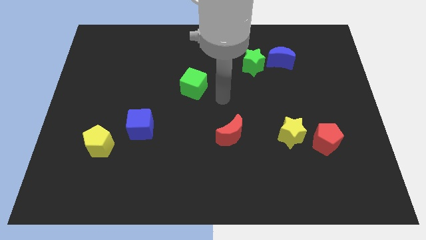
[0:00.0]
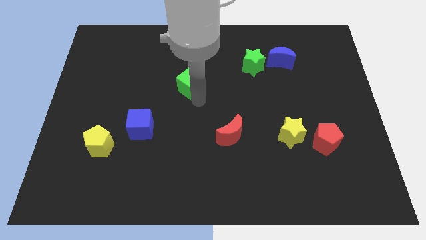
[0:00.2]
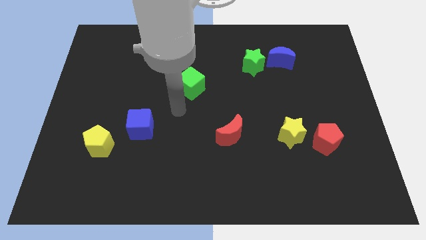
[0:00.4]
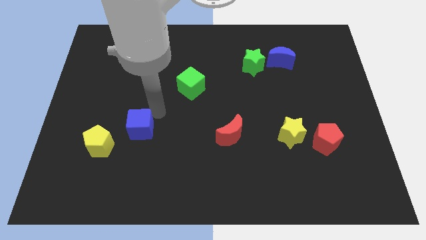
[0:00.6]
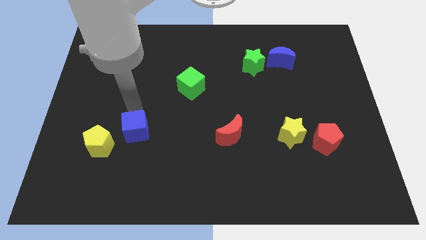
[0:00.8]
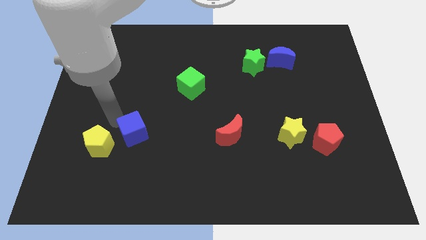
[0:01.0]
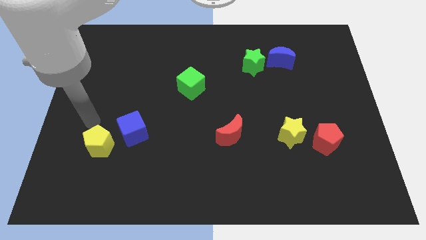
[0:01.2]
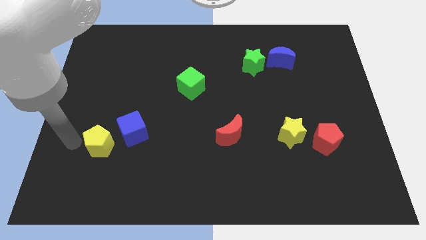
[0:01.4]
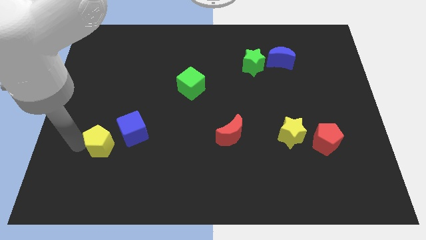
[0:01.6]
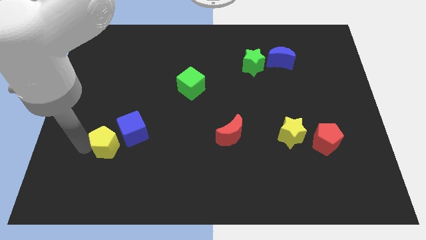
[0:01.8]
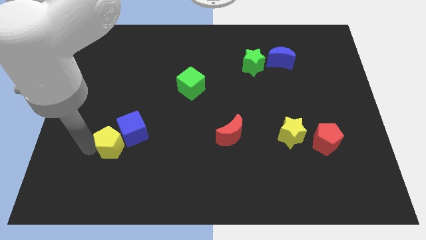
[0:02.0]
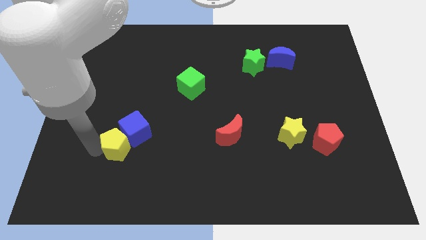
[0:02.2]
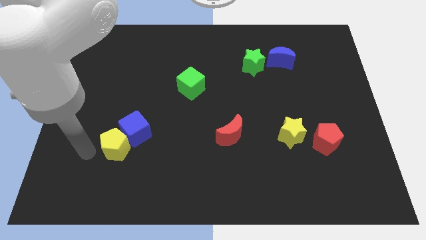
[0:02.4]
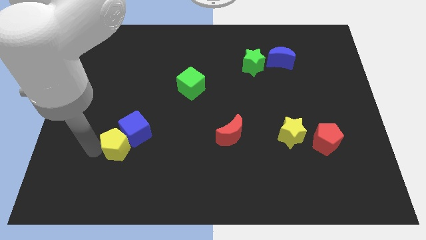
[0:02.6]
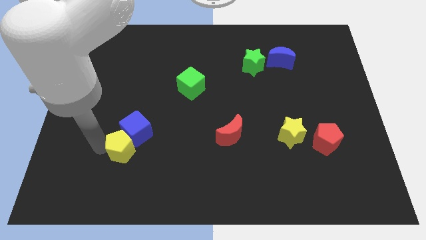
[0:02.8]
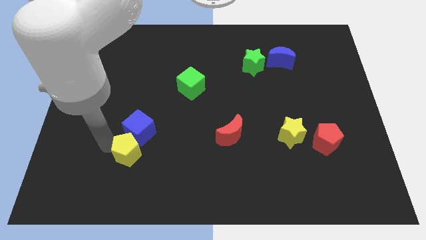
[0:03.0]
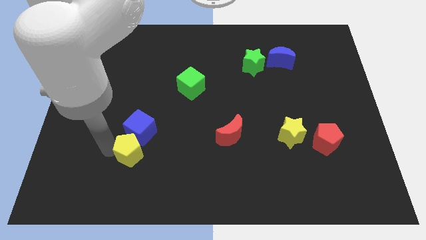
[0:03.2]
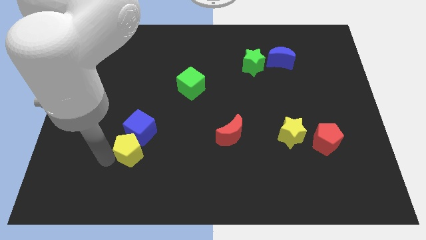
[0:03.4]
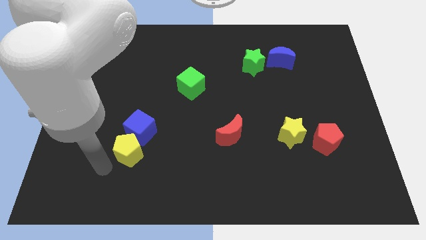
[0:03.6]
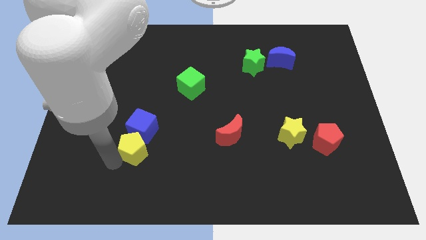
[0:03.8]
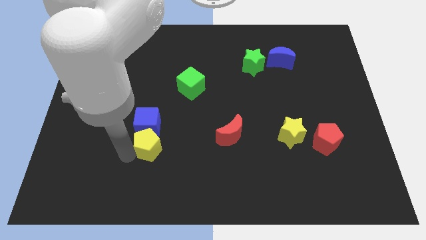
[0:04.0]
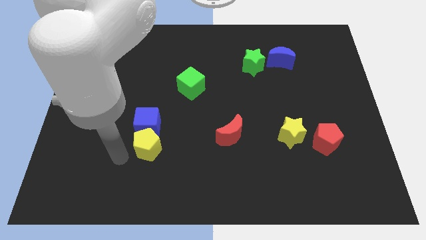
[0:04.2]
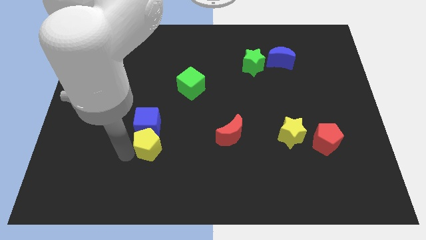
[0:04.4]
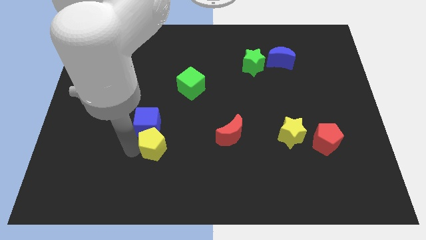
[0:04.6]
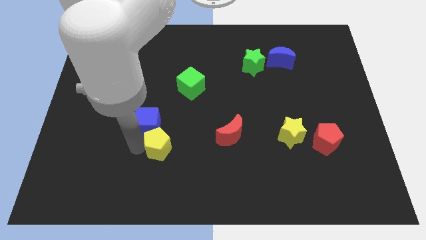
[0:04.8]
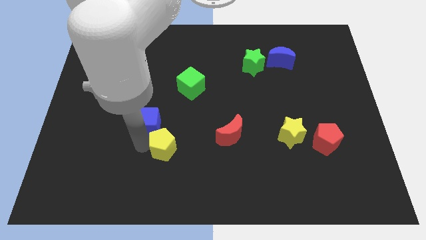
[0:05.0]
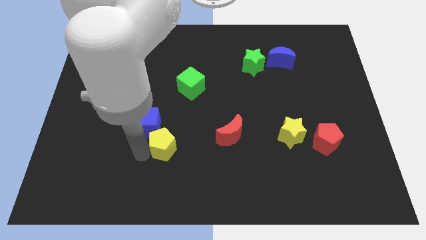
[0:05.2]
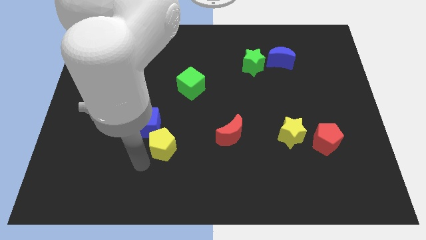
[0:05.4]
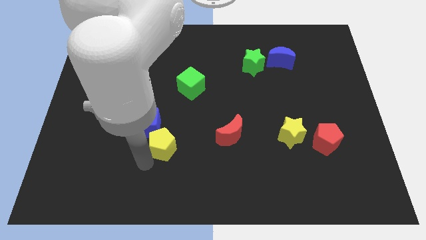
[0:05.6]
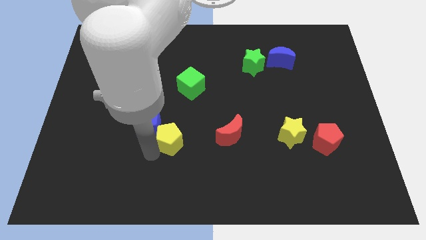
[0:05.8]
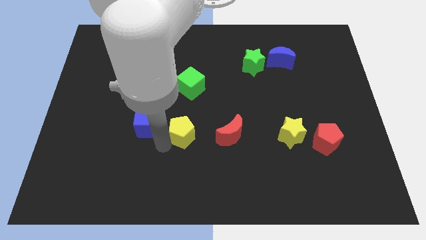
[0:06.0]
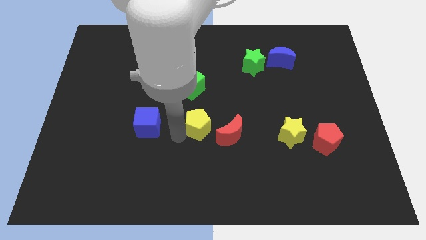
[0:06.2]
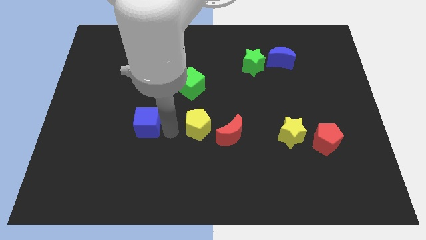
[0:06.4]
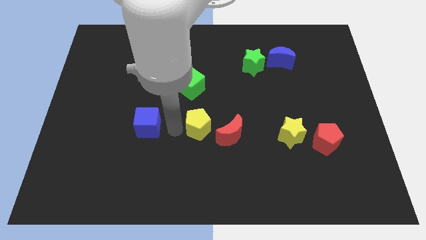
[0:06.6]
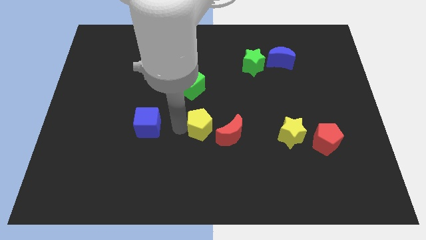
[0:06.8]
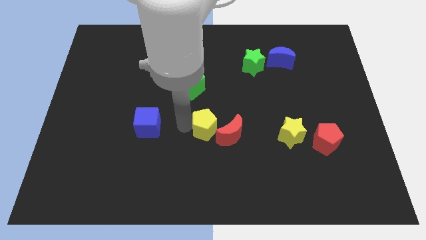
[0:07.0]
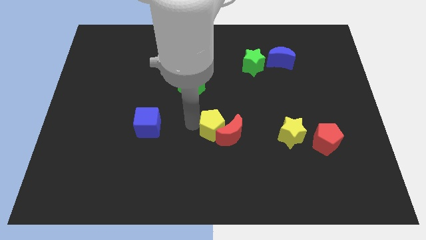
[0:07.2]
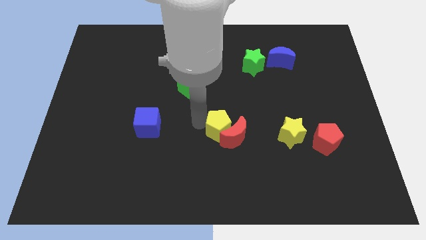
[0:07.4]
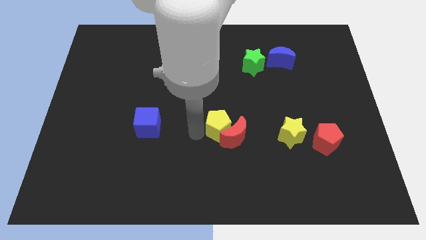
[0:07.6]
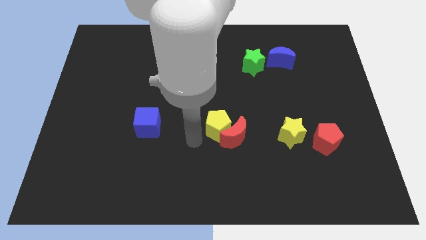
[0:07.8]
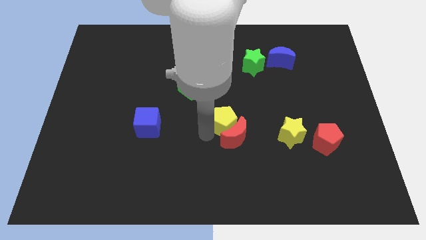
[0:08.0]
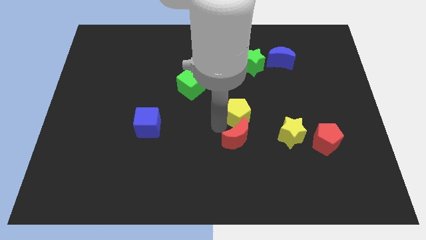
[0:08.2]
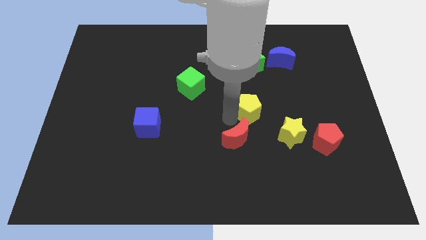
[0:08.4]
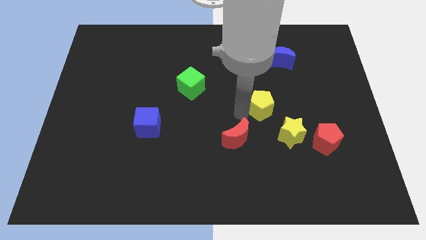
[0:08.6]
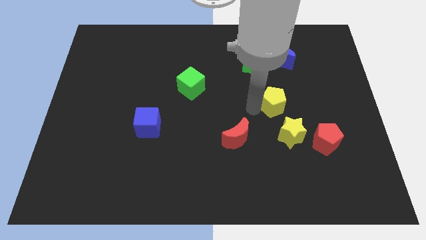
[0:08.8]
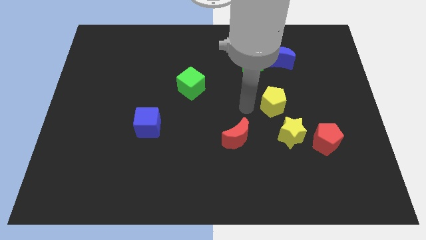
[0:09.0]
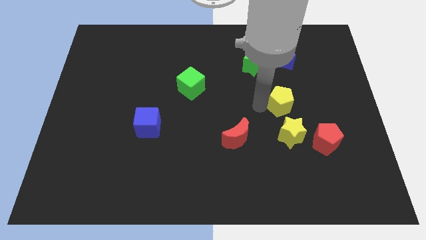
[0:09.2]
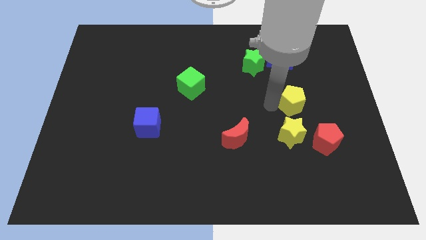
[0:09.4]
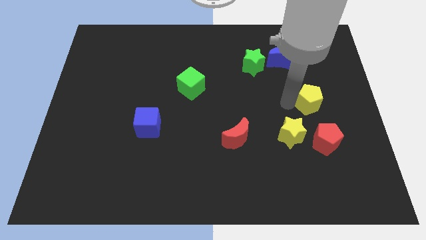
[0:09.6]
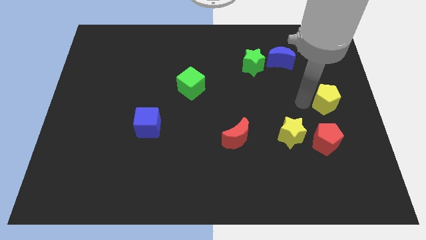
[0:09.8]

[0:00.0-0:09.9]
slide the yellow pentagon to the center right

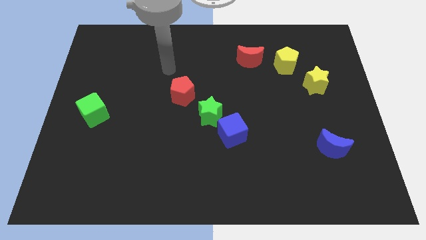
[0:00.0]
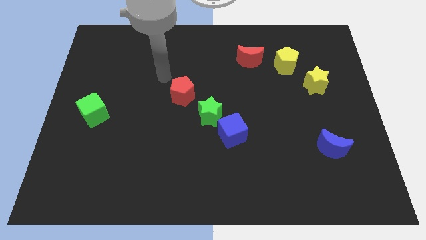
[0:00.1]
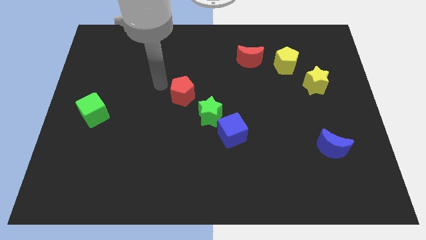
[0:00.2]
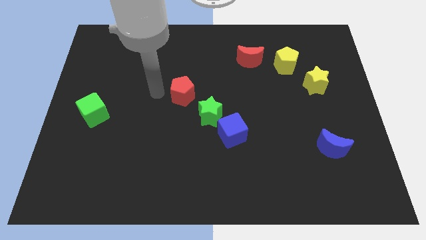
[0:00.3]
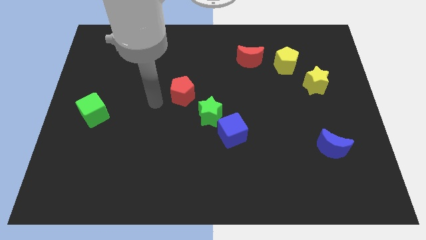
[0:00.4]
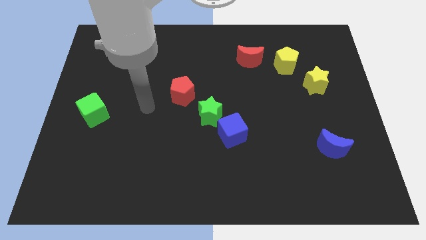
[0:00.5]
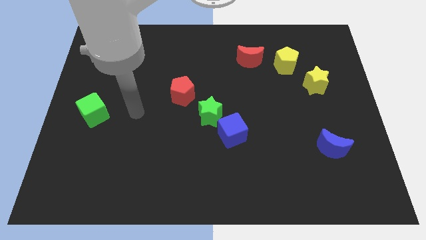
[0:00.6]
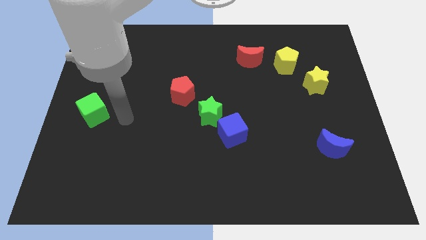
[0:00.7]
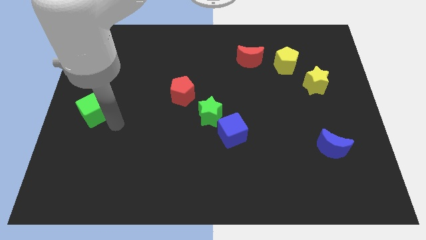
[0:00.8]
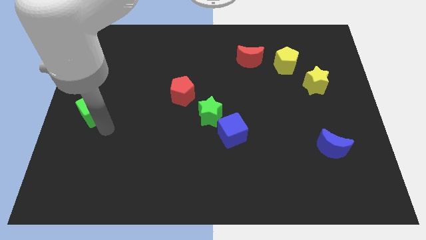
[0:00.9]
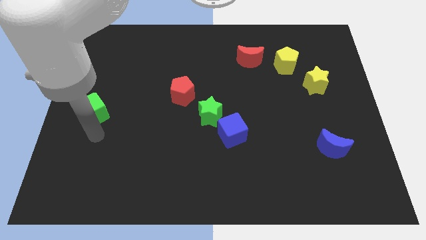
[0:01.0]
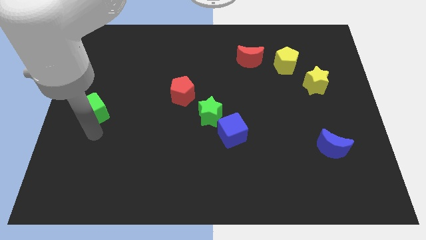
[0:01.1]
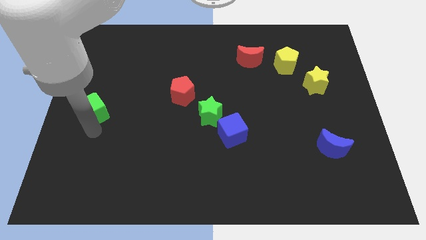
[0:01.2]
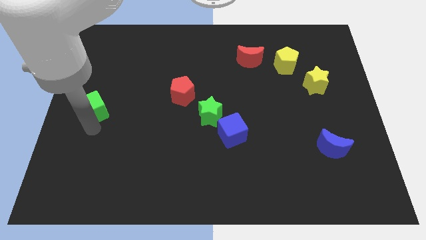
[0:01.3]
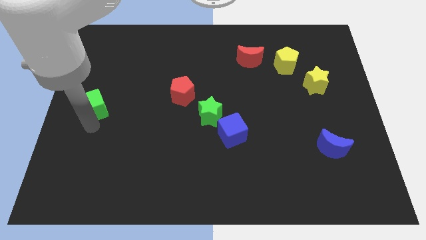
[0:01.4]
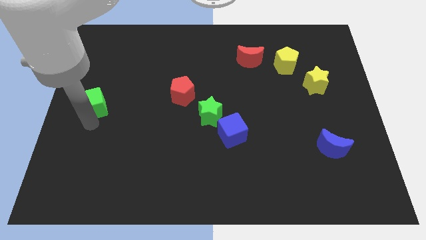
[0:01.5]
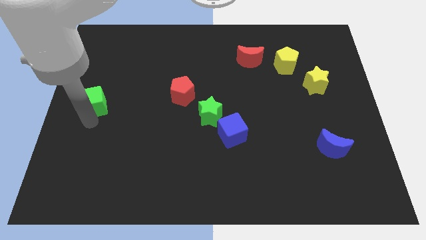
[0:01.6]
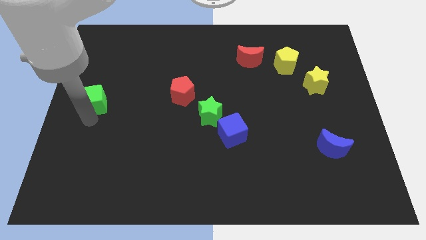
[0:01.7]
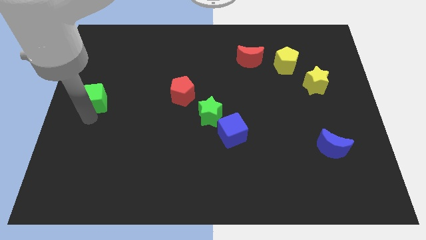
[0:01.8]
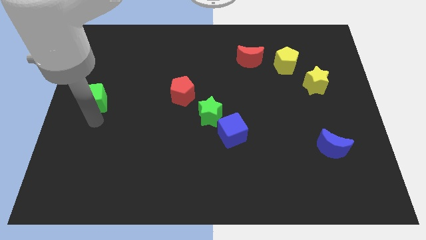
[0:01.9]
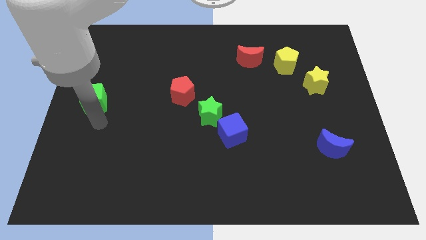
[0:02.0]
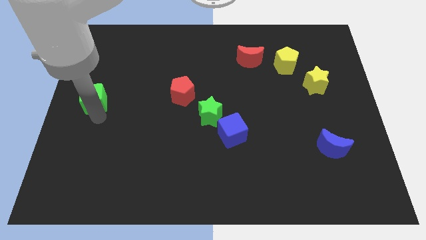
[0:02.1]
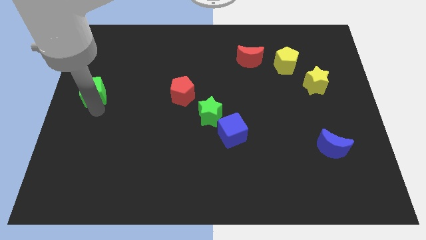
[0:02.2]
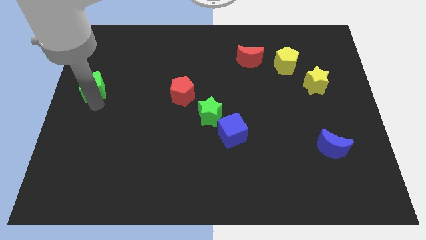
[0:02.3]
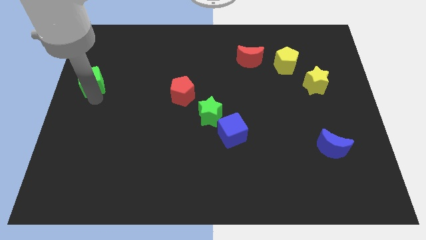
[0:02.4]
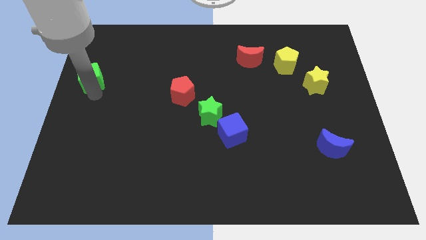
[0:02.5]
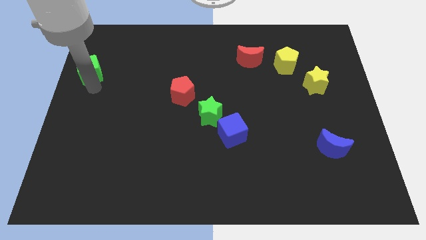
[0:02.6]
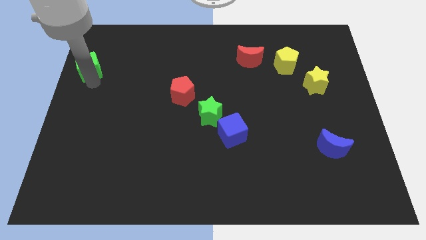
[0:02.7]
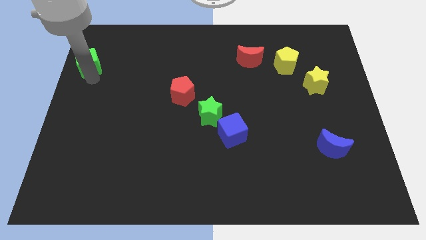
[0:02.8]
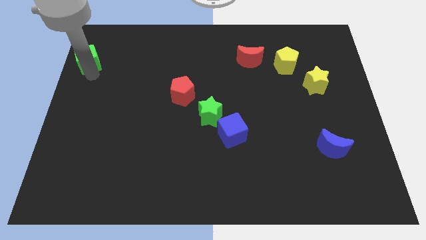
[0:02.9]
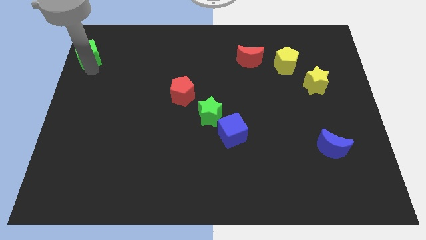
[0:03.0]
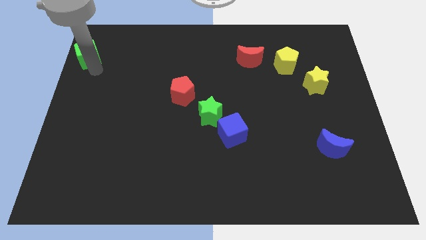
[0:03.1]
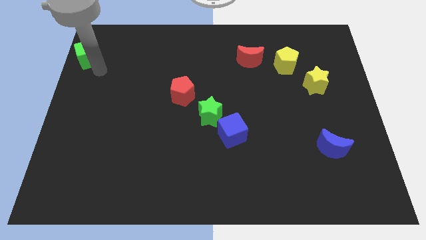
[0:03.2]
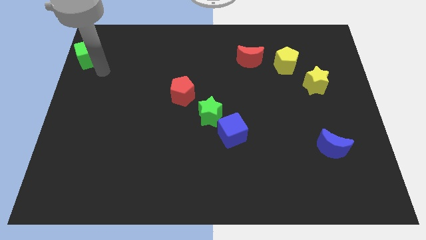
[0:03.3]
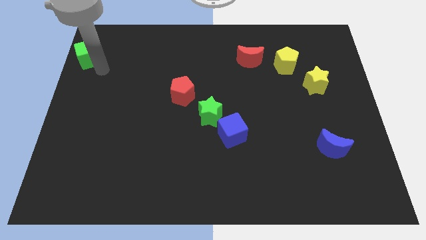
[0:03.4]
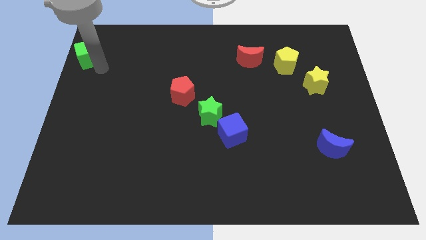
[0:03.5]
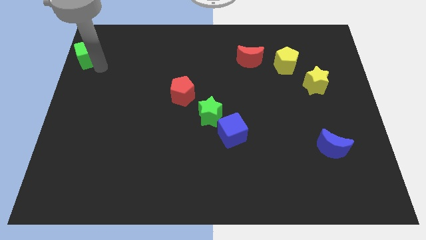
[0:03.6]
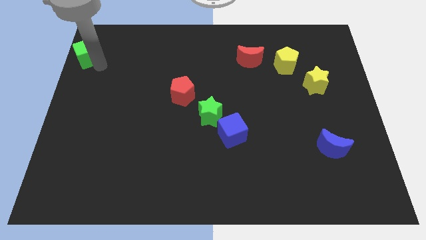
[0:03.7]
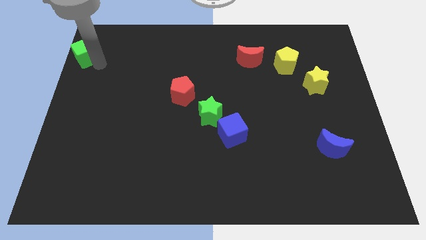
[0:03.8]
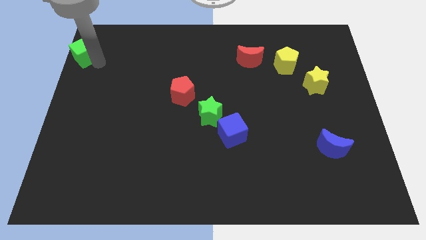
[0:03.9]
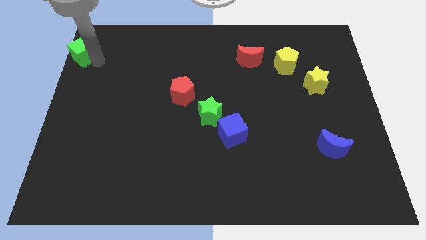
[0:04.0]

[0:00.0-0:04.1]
move the green cube to the upper left corner
